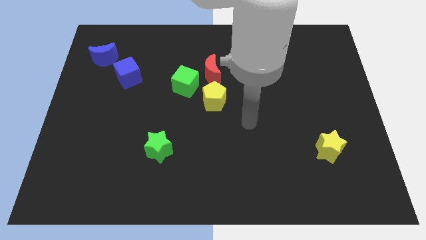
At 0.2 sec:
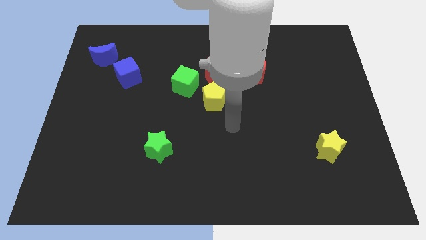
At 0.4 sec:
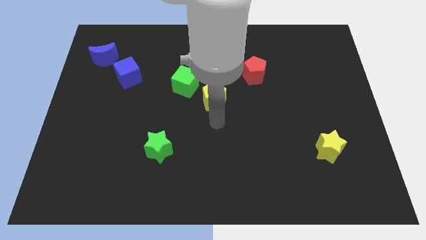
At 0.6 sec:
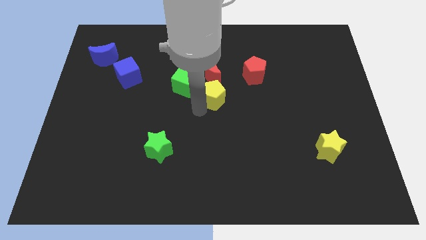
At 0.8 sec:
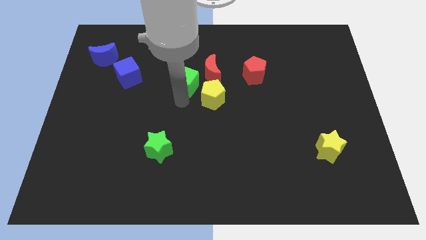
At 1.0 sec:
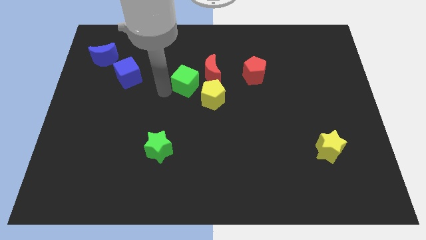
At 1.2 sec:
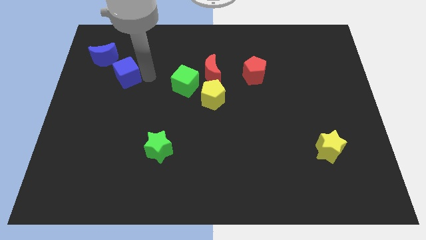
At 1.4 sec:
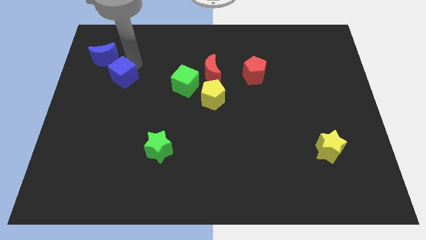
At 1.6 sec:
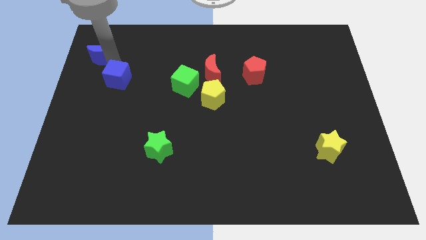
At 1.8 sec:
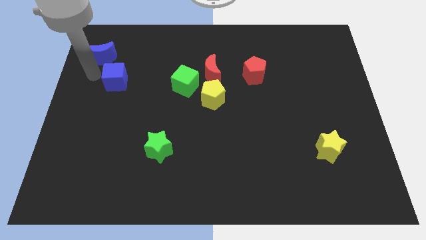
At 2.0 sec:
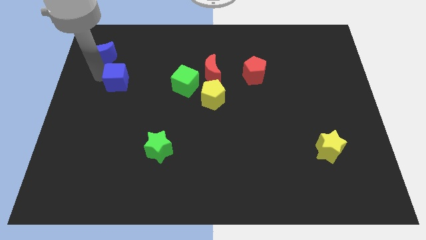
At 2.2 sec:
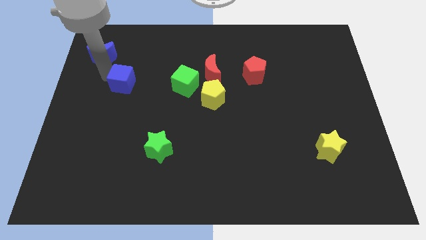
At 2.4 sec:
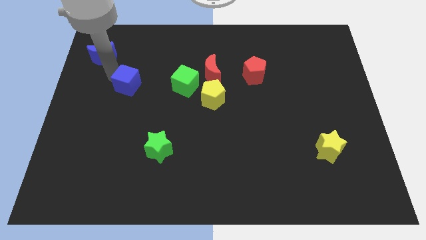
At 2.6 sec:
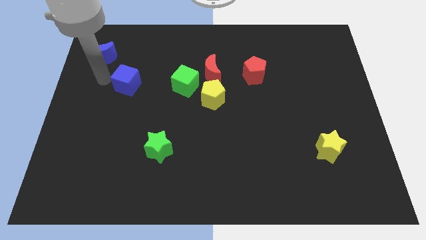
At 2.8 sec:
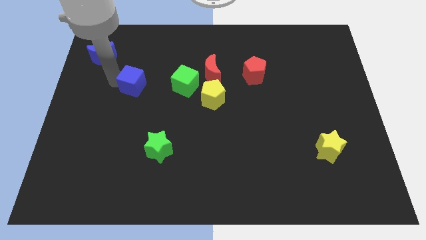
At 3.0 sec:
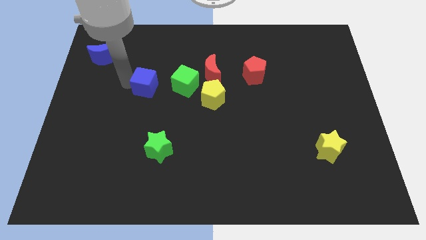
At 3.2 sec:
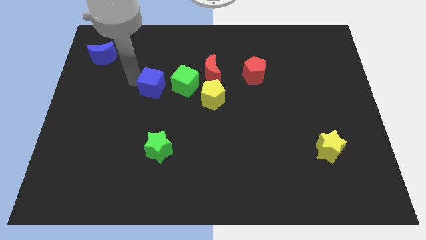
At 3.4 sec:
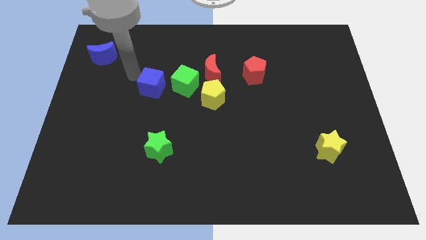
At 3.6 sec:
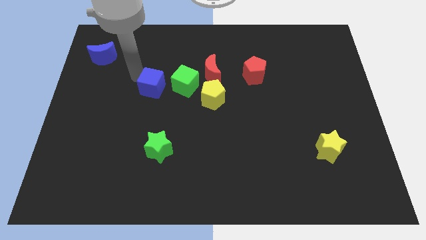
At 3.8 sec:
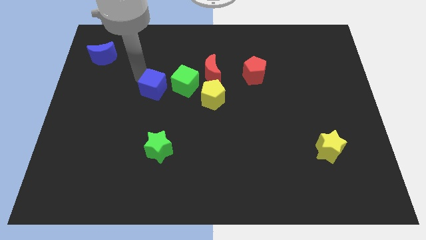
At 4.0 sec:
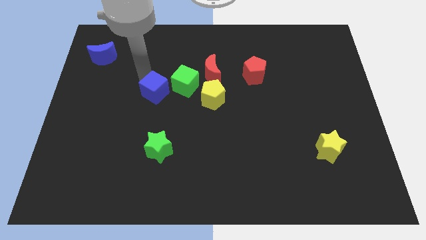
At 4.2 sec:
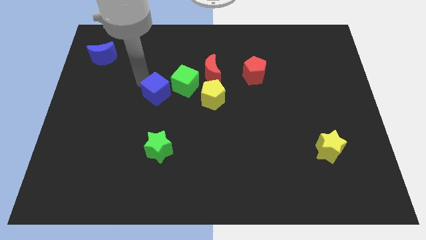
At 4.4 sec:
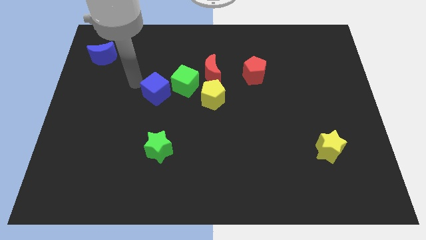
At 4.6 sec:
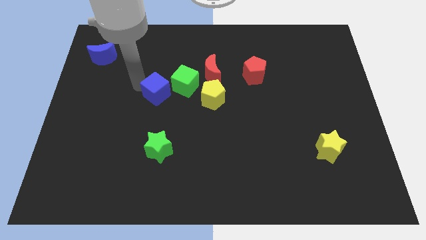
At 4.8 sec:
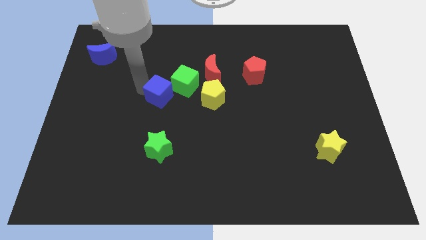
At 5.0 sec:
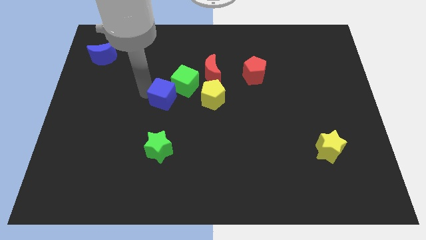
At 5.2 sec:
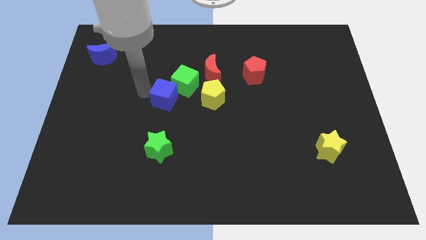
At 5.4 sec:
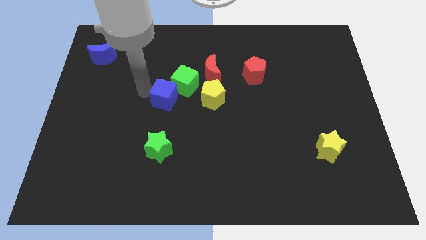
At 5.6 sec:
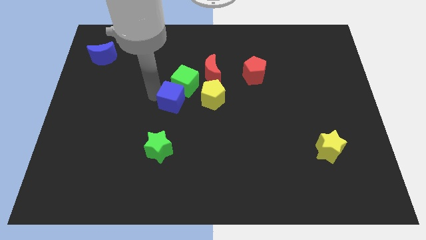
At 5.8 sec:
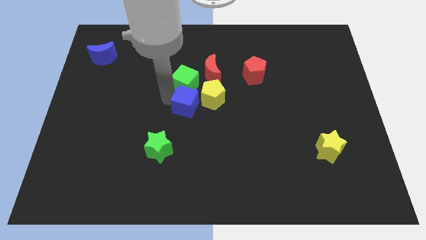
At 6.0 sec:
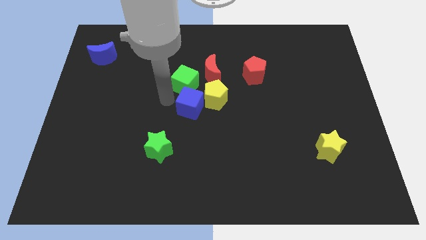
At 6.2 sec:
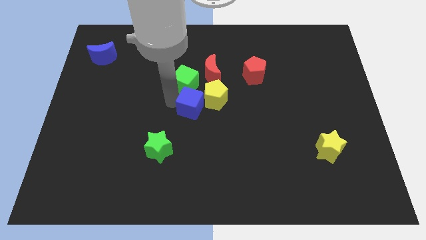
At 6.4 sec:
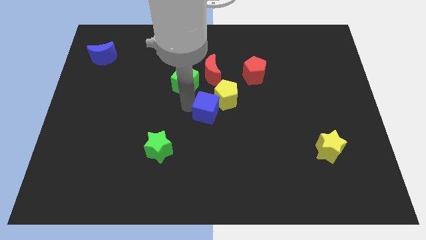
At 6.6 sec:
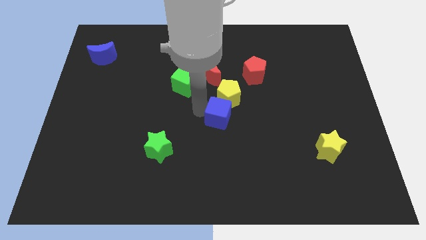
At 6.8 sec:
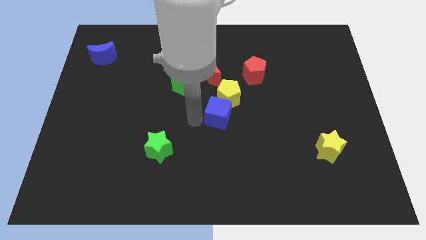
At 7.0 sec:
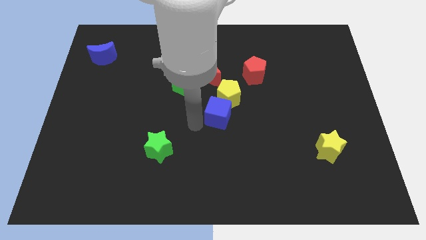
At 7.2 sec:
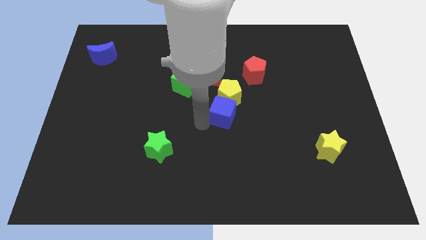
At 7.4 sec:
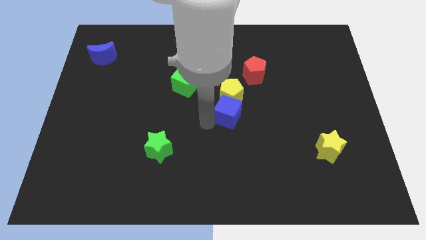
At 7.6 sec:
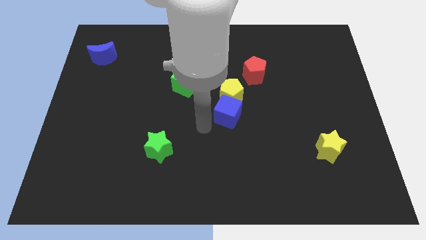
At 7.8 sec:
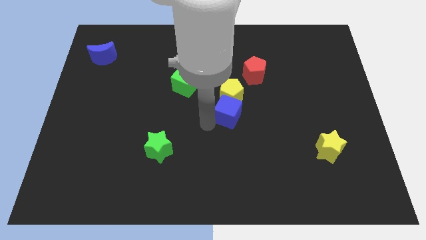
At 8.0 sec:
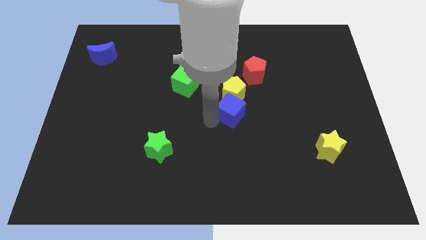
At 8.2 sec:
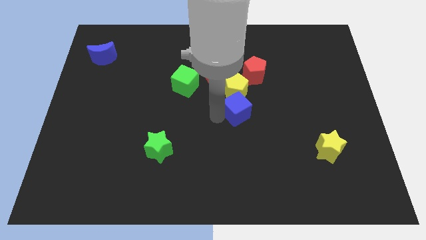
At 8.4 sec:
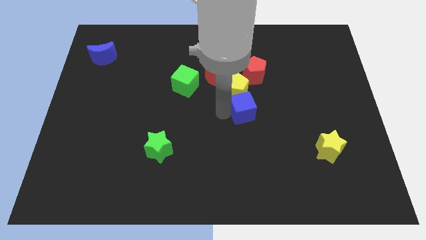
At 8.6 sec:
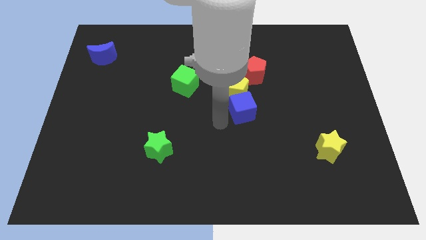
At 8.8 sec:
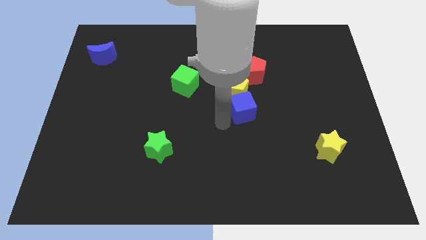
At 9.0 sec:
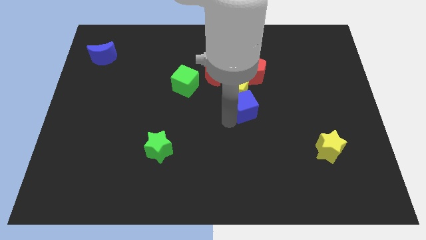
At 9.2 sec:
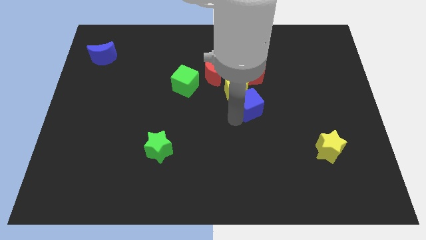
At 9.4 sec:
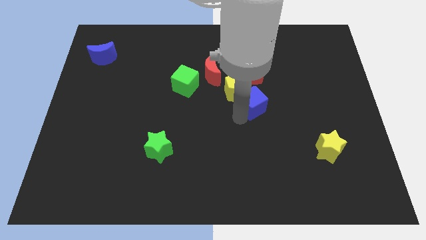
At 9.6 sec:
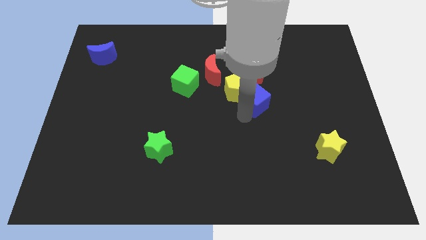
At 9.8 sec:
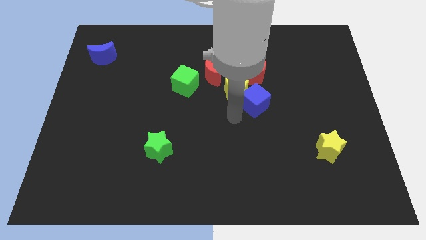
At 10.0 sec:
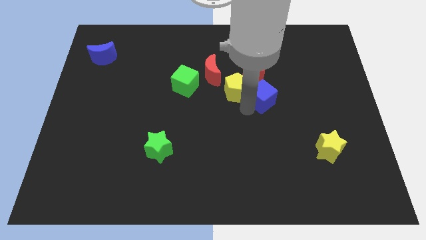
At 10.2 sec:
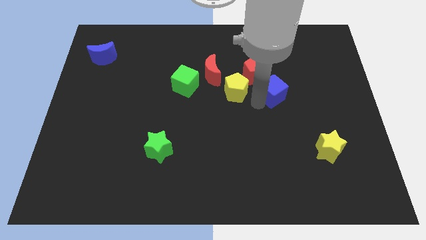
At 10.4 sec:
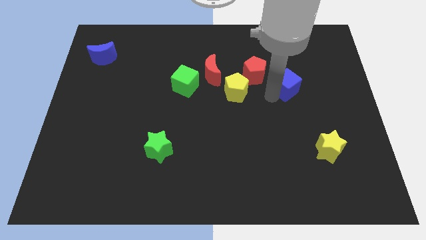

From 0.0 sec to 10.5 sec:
put the blue cube right of the red pentagon

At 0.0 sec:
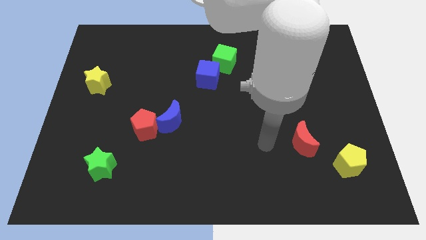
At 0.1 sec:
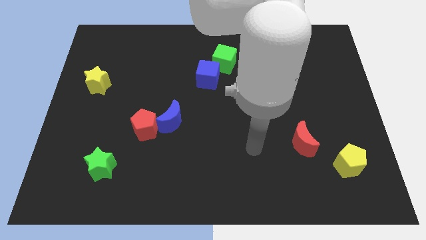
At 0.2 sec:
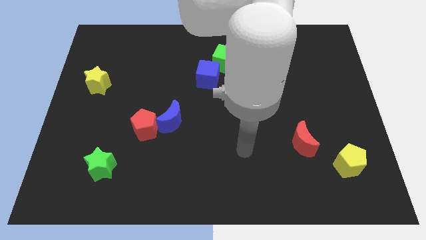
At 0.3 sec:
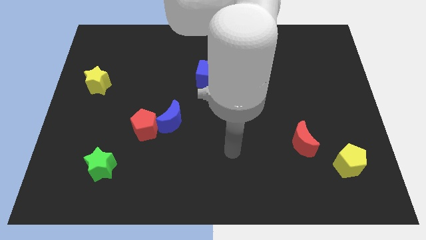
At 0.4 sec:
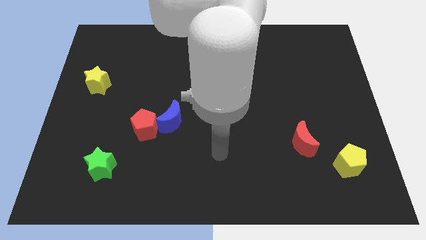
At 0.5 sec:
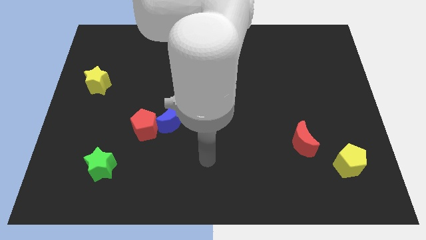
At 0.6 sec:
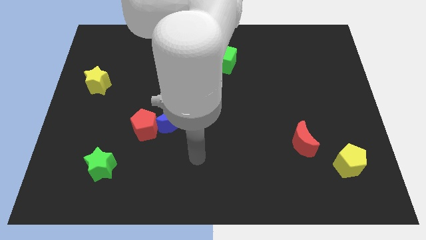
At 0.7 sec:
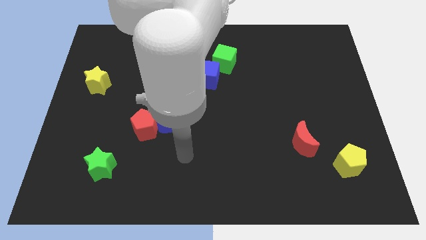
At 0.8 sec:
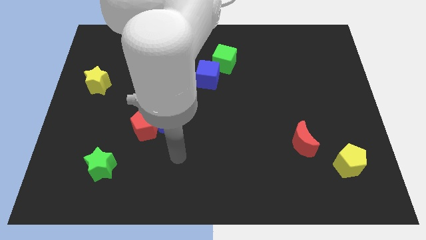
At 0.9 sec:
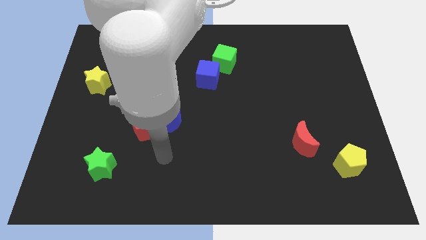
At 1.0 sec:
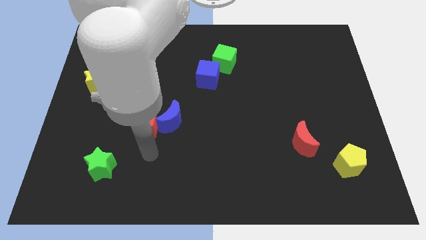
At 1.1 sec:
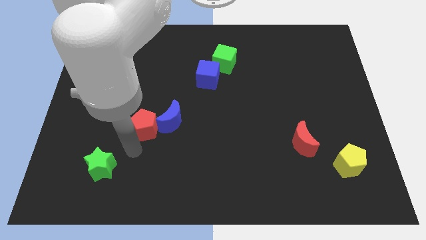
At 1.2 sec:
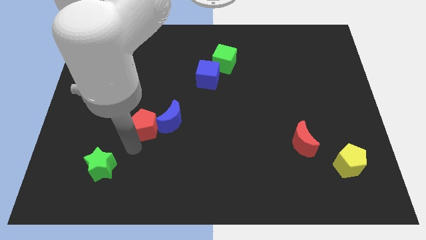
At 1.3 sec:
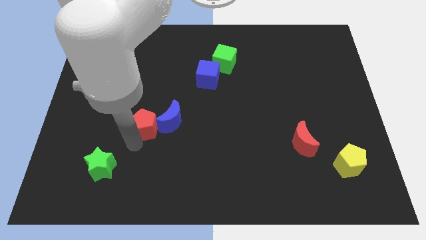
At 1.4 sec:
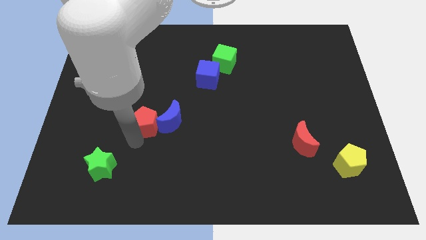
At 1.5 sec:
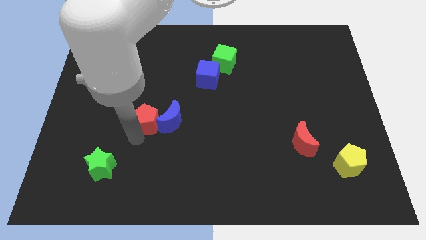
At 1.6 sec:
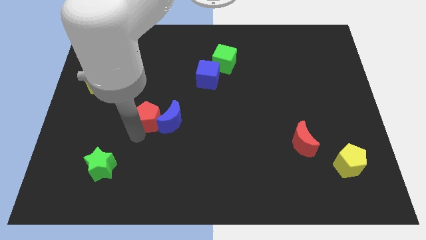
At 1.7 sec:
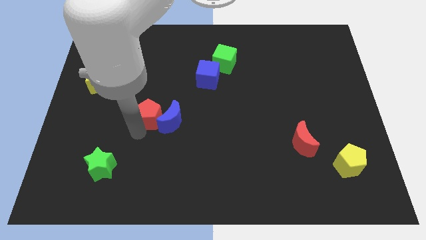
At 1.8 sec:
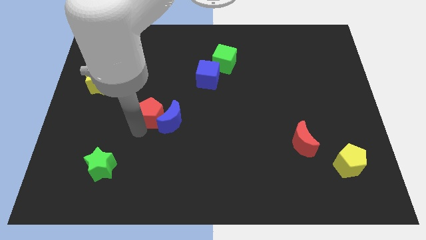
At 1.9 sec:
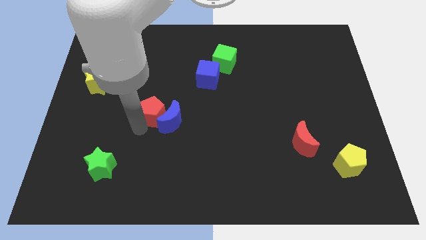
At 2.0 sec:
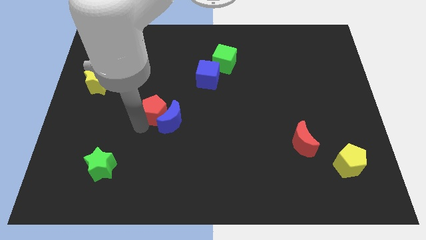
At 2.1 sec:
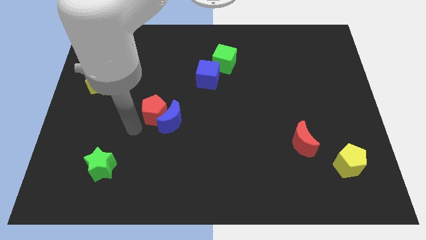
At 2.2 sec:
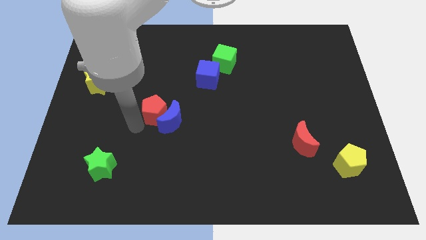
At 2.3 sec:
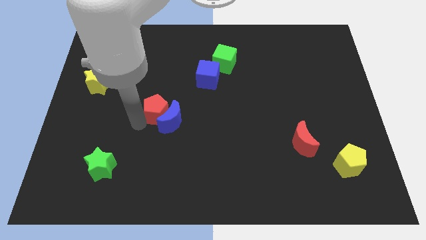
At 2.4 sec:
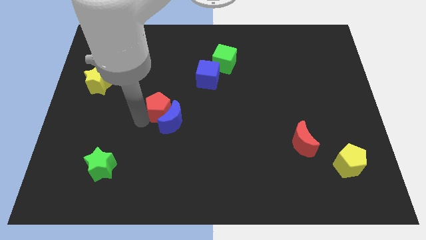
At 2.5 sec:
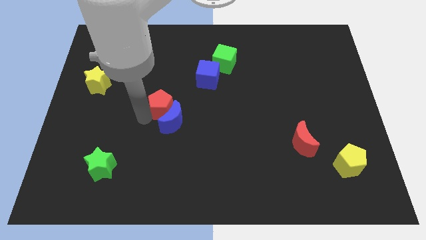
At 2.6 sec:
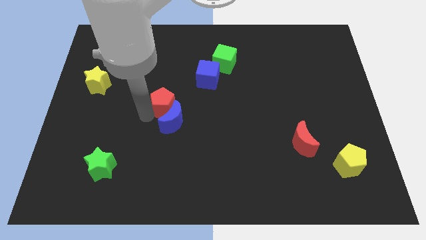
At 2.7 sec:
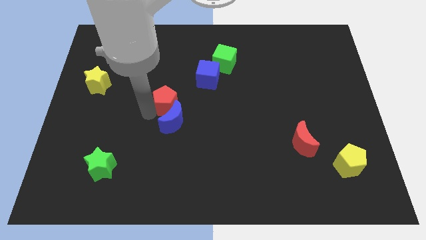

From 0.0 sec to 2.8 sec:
move the red pentagon to the bottom left side of the blue cube
